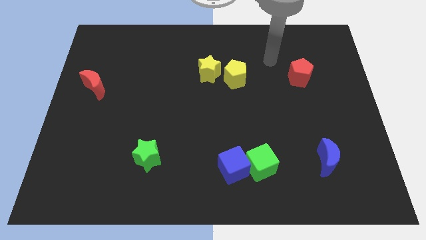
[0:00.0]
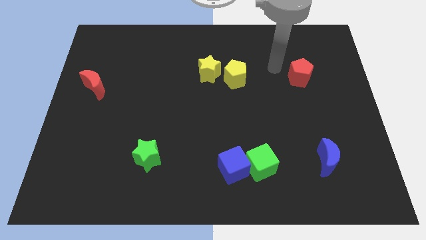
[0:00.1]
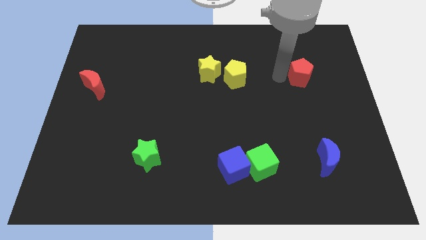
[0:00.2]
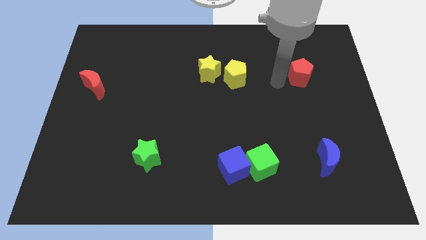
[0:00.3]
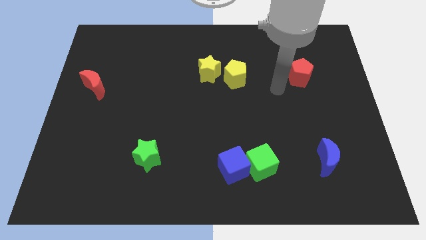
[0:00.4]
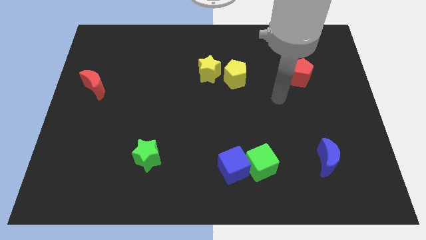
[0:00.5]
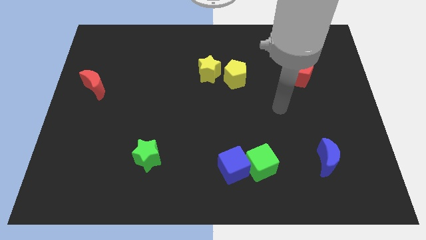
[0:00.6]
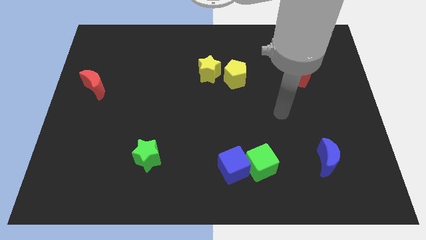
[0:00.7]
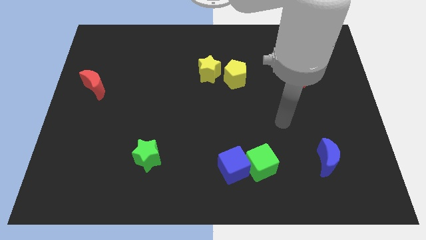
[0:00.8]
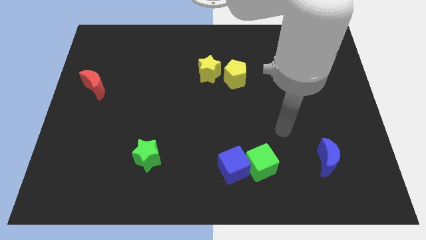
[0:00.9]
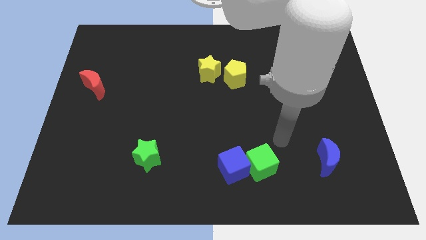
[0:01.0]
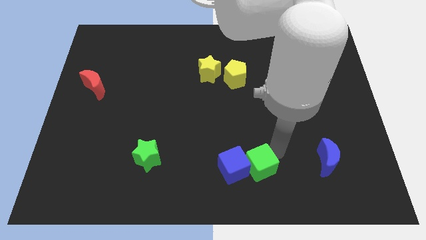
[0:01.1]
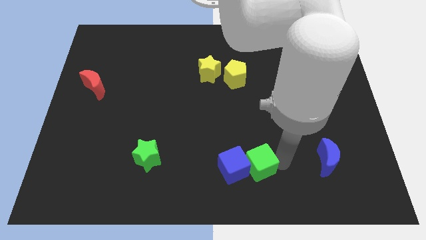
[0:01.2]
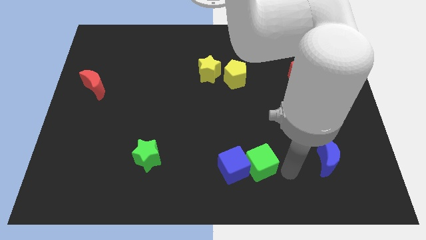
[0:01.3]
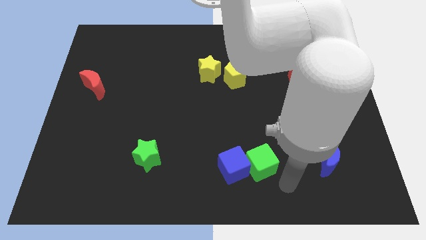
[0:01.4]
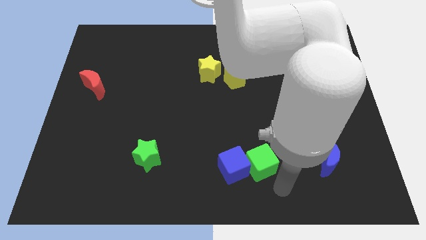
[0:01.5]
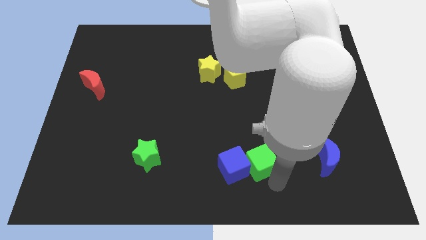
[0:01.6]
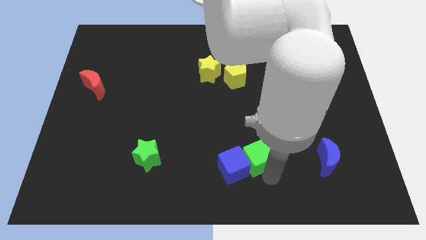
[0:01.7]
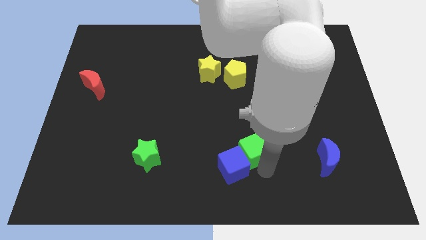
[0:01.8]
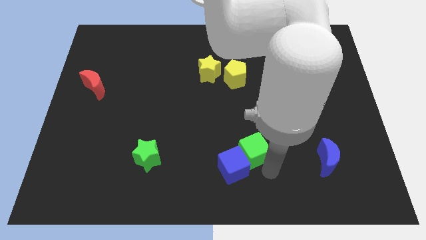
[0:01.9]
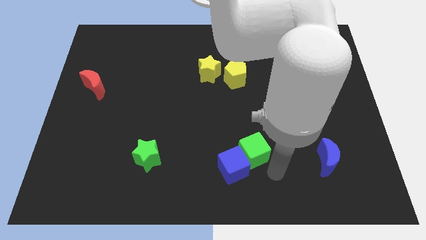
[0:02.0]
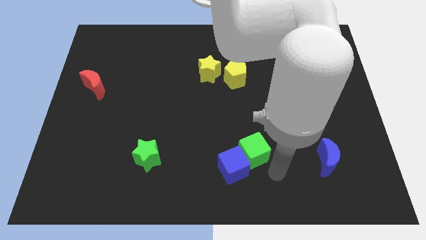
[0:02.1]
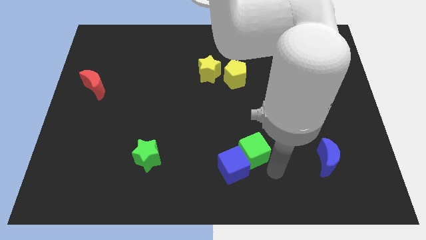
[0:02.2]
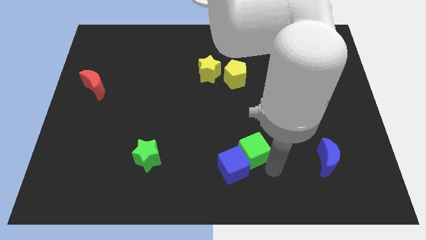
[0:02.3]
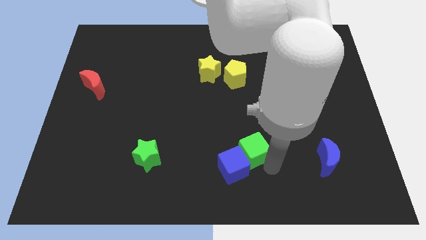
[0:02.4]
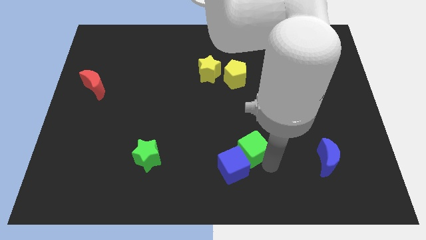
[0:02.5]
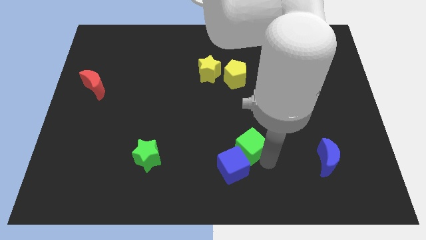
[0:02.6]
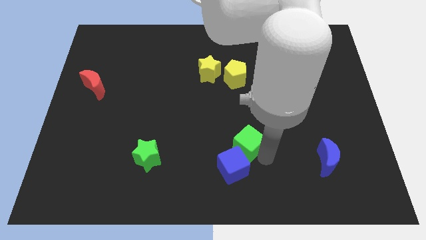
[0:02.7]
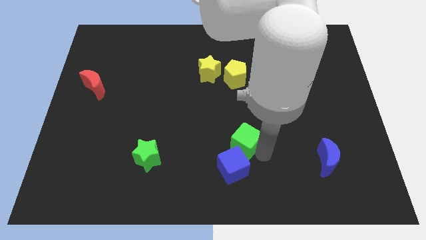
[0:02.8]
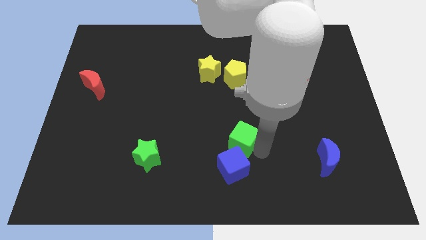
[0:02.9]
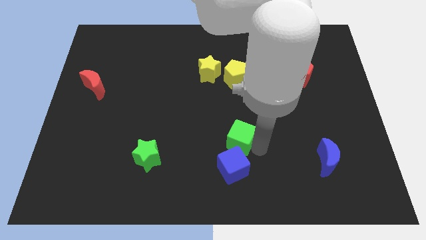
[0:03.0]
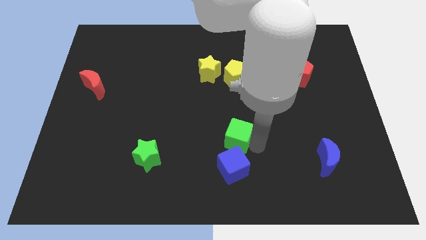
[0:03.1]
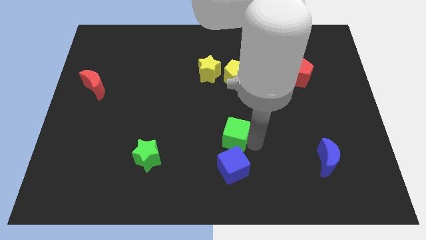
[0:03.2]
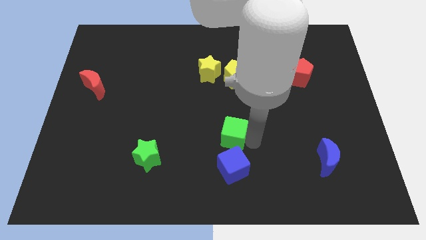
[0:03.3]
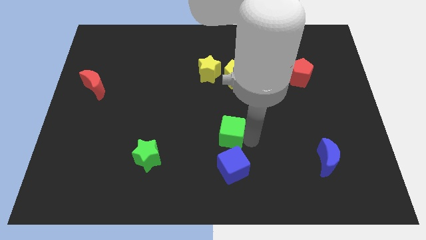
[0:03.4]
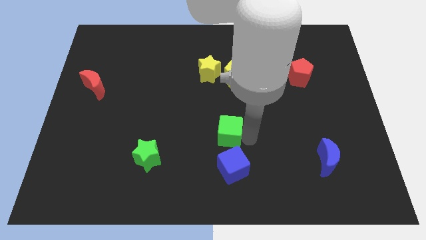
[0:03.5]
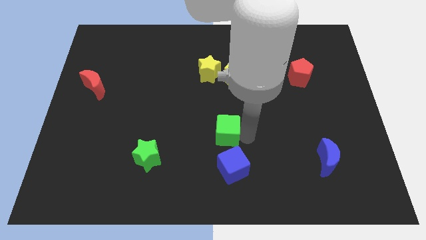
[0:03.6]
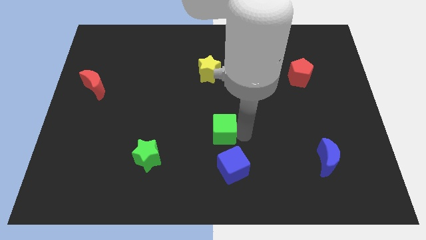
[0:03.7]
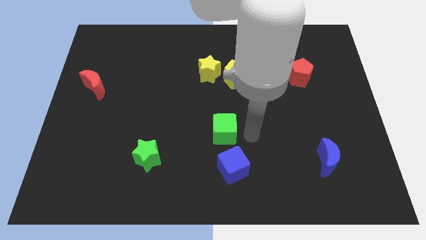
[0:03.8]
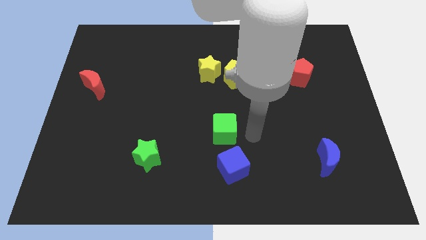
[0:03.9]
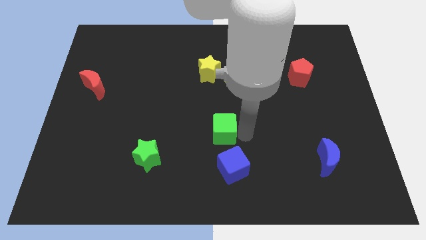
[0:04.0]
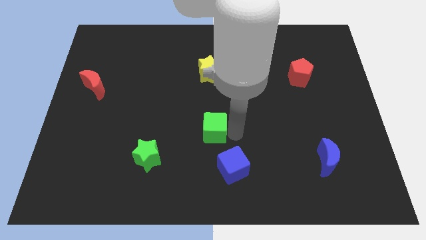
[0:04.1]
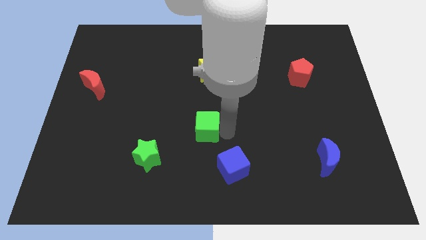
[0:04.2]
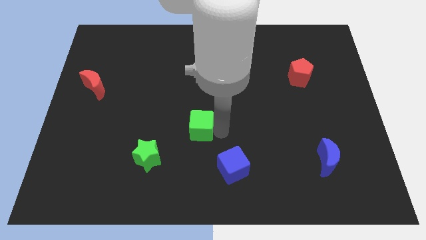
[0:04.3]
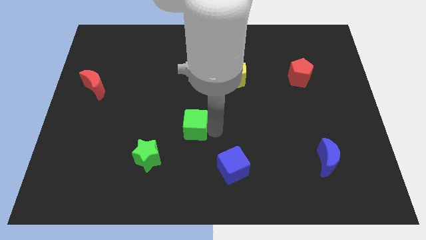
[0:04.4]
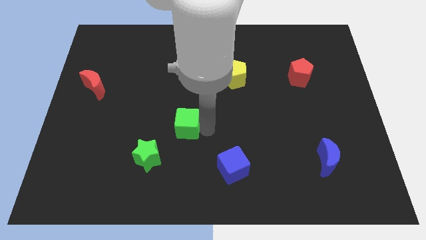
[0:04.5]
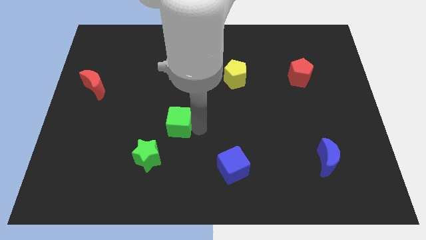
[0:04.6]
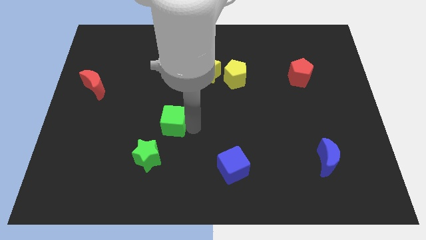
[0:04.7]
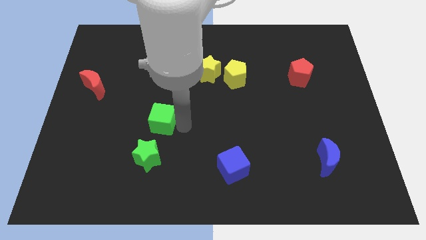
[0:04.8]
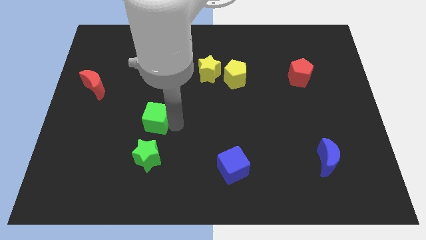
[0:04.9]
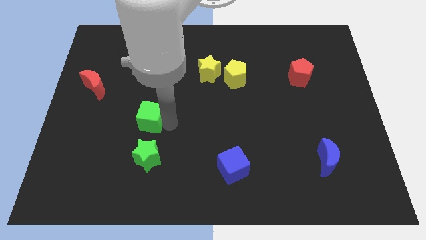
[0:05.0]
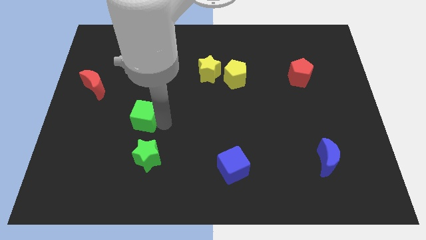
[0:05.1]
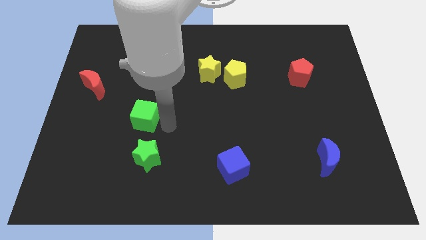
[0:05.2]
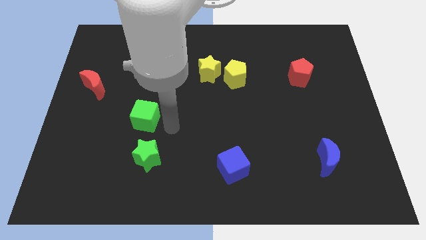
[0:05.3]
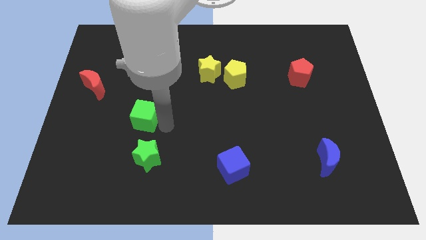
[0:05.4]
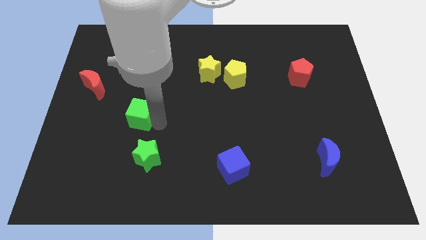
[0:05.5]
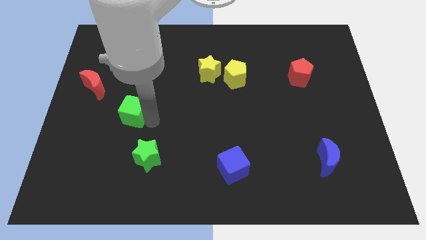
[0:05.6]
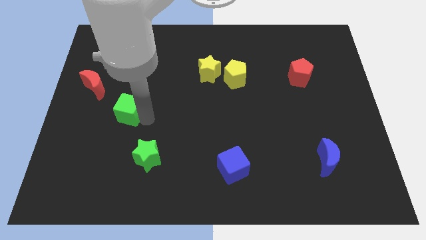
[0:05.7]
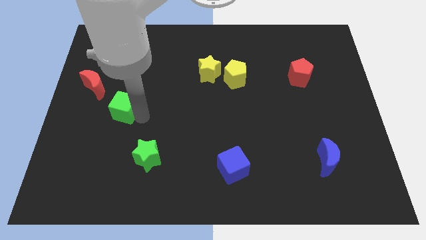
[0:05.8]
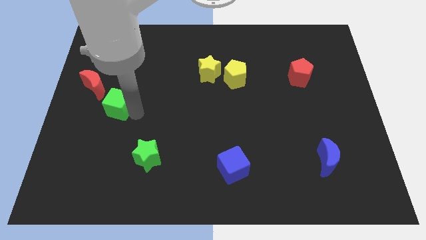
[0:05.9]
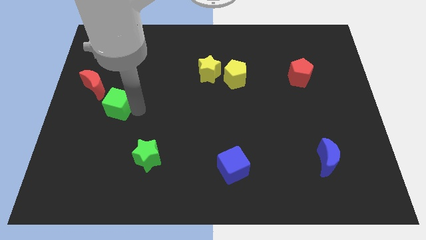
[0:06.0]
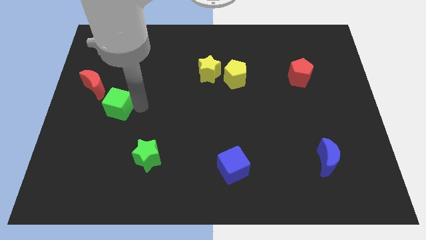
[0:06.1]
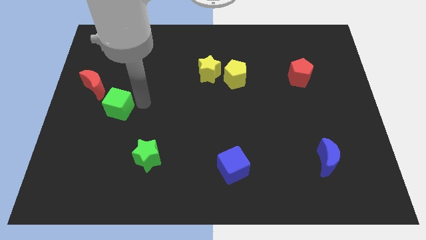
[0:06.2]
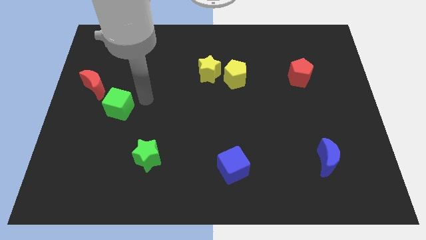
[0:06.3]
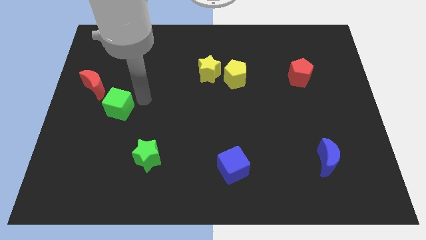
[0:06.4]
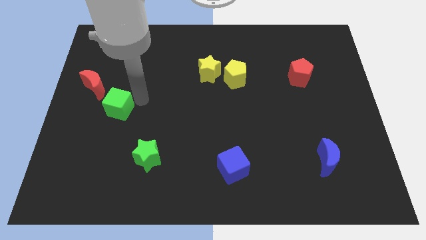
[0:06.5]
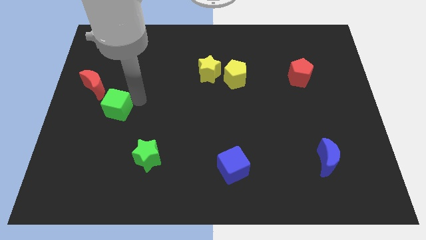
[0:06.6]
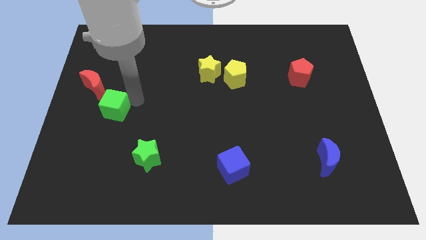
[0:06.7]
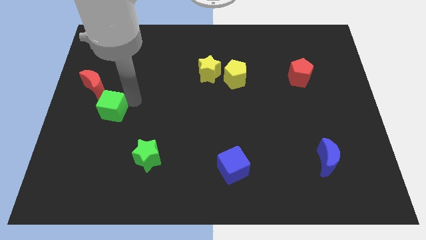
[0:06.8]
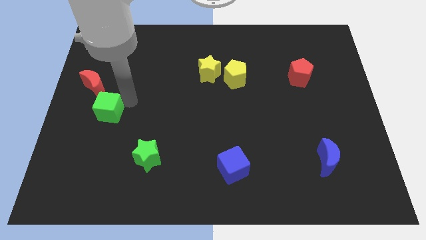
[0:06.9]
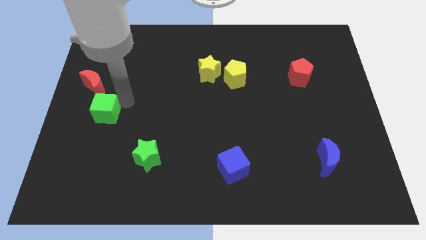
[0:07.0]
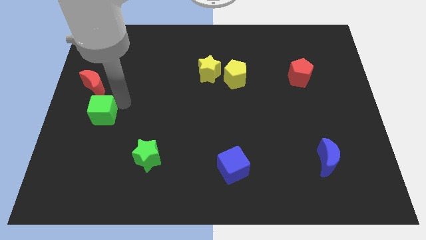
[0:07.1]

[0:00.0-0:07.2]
move the green cube to the left side of the board
